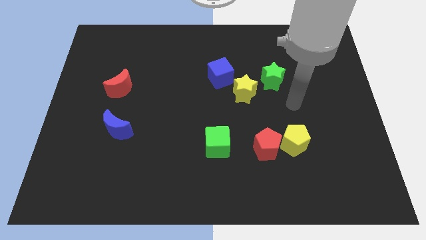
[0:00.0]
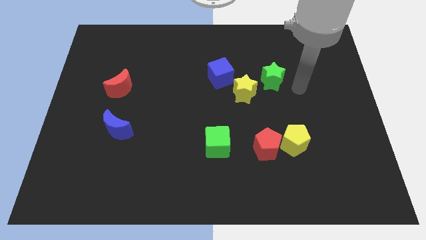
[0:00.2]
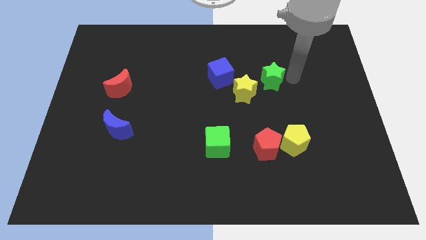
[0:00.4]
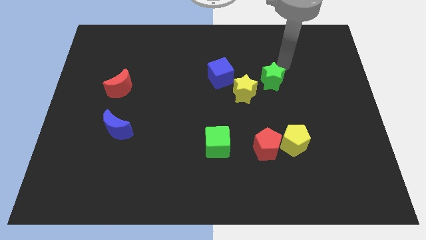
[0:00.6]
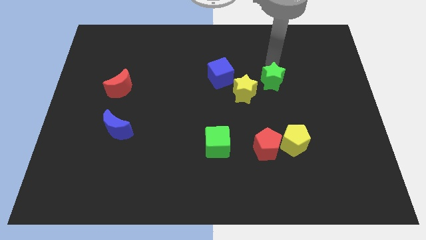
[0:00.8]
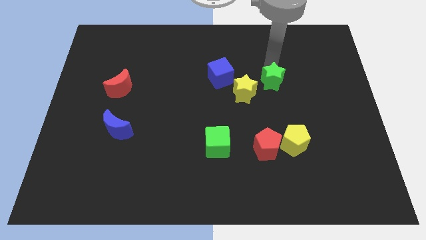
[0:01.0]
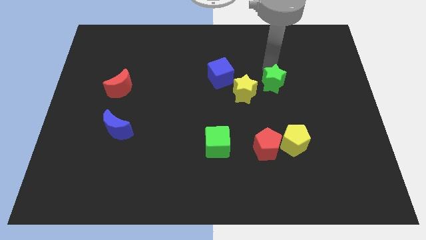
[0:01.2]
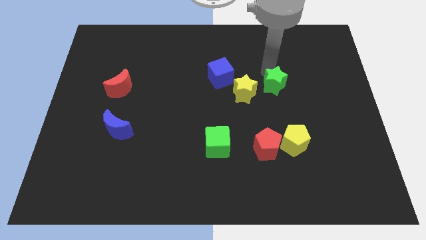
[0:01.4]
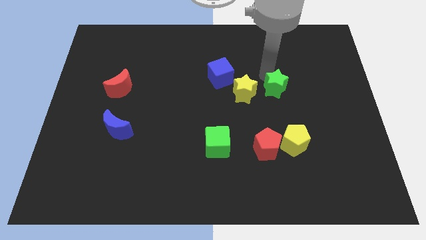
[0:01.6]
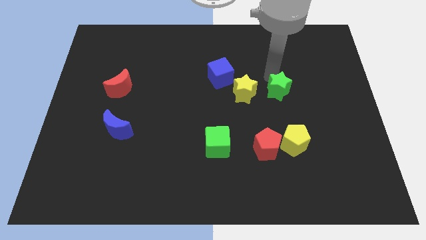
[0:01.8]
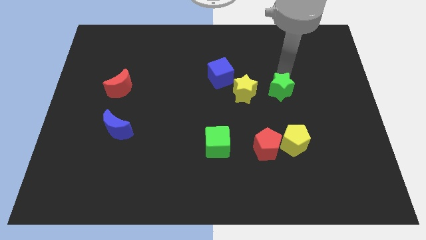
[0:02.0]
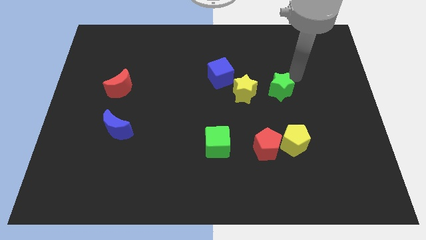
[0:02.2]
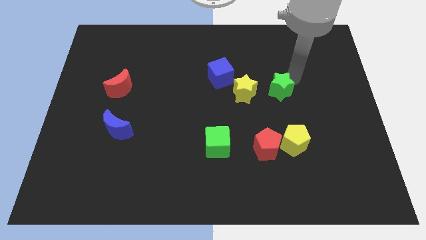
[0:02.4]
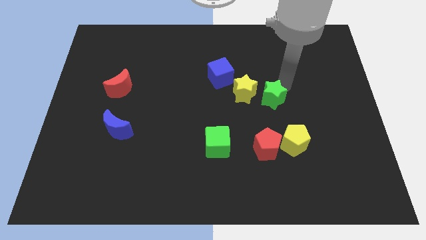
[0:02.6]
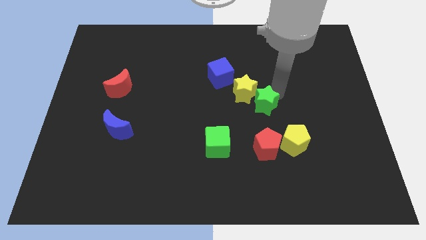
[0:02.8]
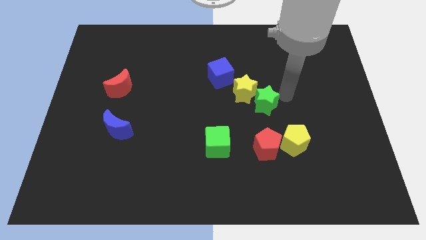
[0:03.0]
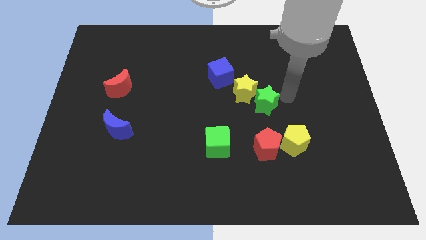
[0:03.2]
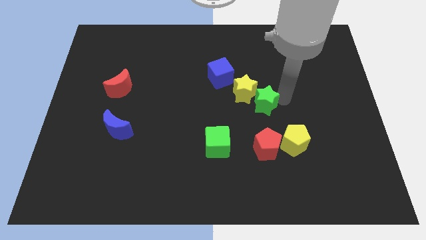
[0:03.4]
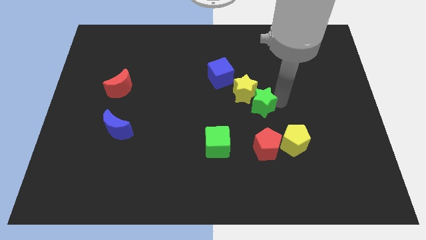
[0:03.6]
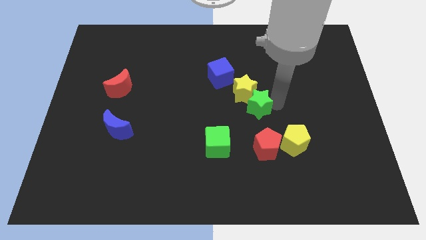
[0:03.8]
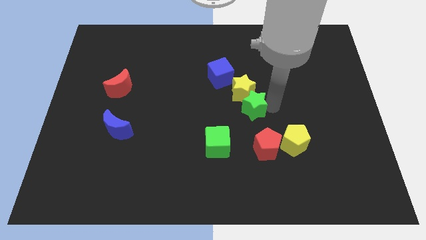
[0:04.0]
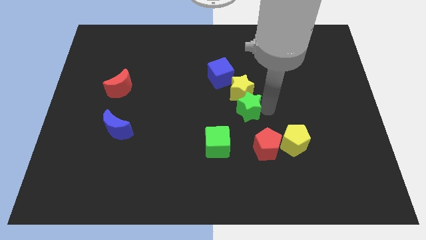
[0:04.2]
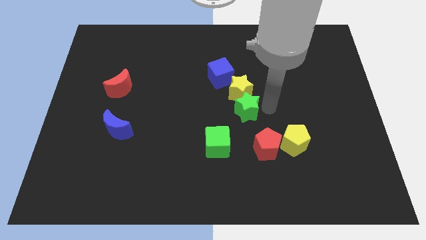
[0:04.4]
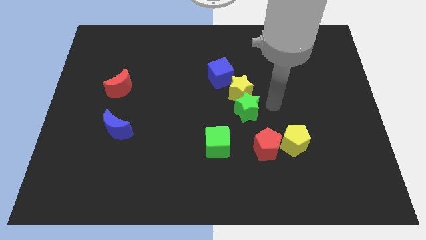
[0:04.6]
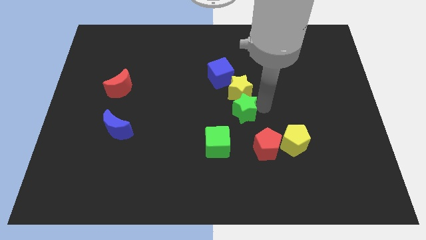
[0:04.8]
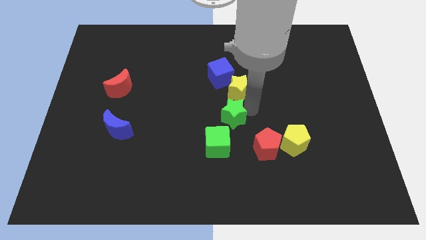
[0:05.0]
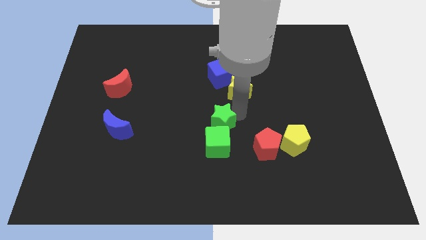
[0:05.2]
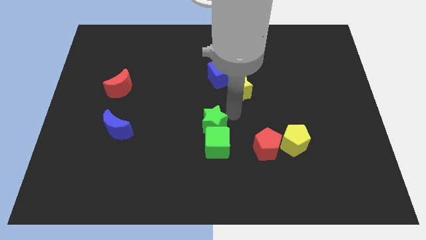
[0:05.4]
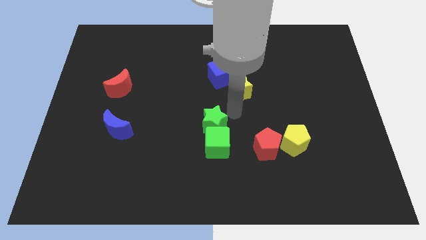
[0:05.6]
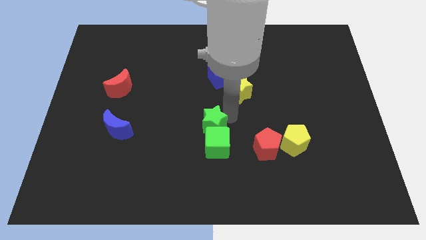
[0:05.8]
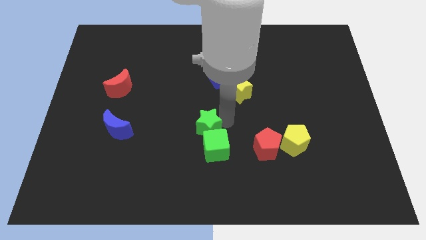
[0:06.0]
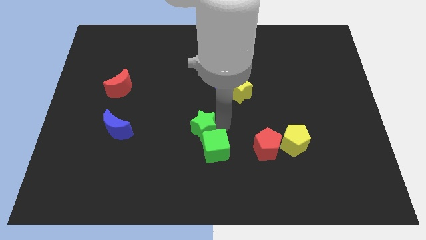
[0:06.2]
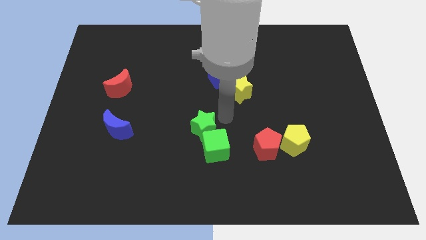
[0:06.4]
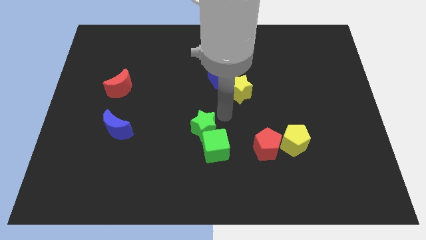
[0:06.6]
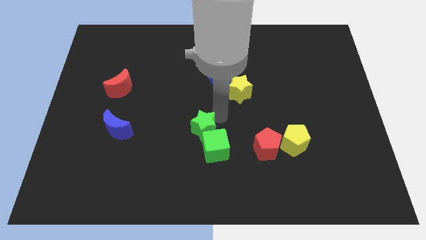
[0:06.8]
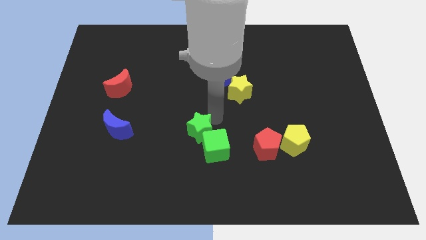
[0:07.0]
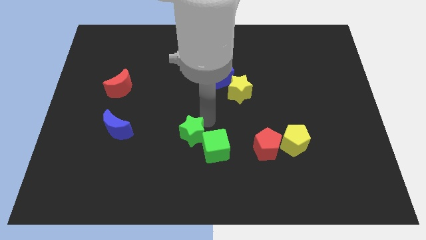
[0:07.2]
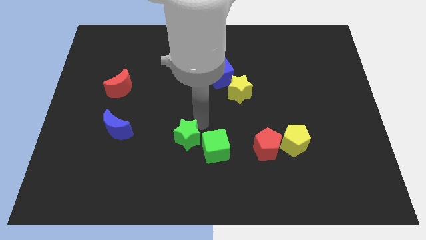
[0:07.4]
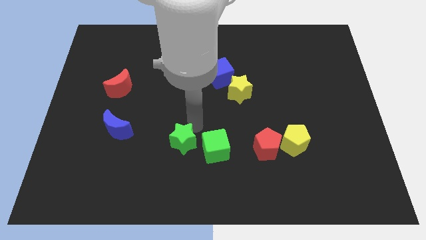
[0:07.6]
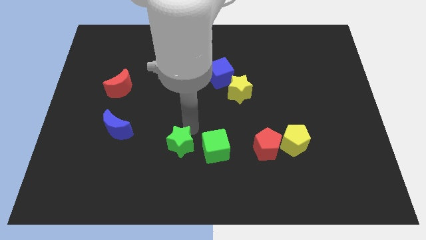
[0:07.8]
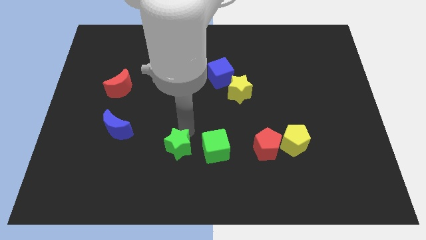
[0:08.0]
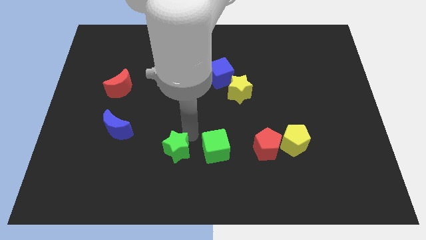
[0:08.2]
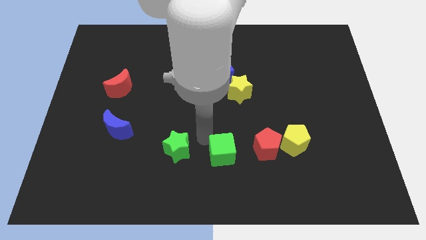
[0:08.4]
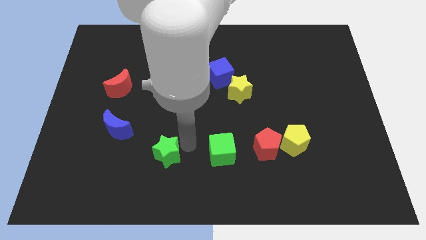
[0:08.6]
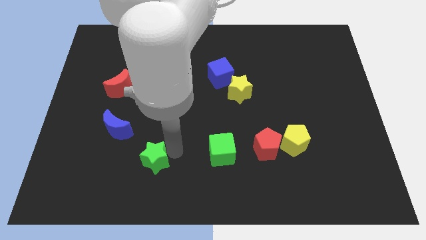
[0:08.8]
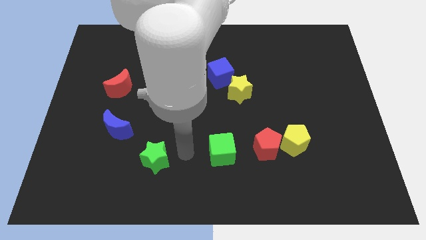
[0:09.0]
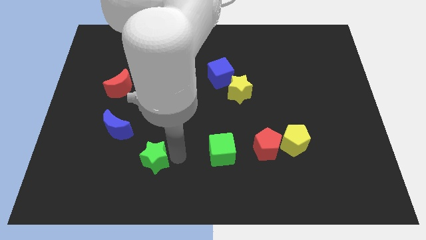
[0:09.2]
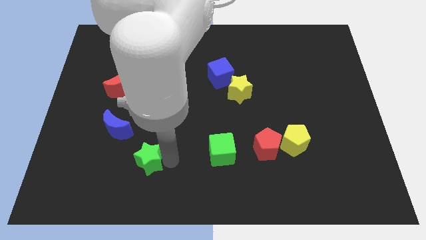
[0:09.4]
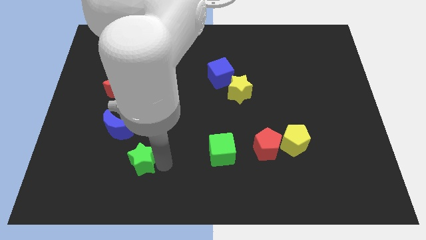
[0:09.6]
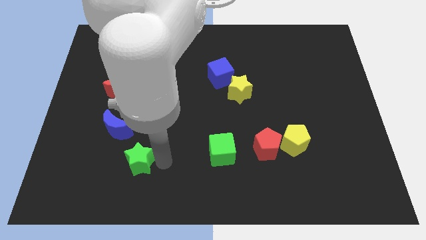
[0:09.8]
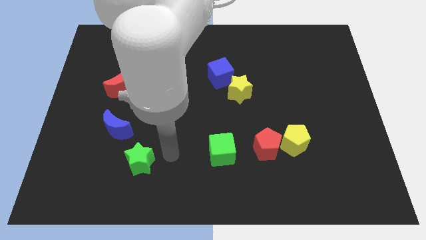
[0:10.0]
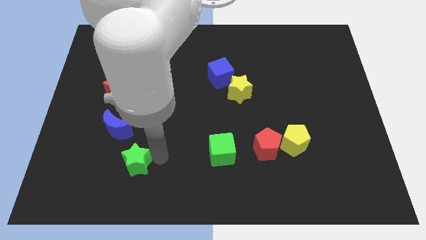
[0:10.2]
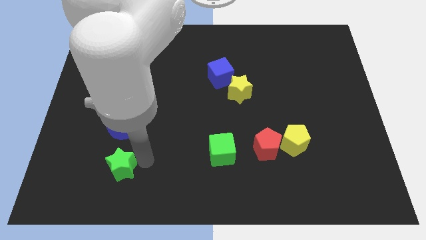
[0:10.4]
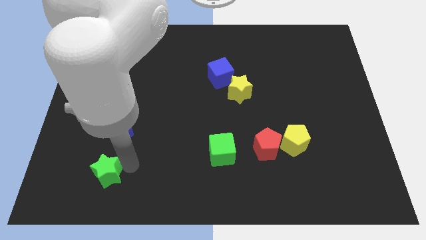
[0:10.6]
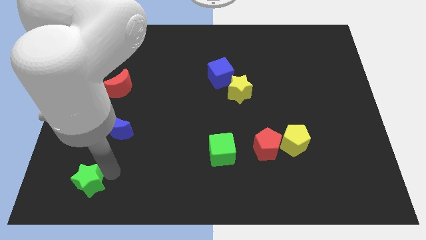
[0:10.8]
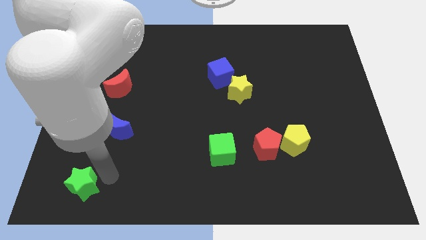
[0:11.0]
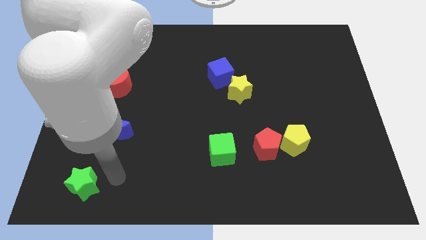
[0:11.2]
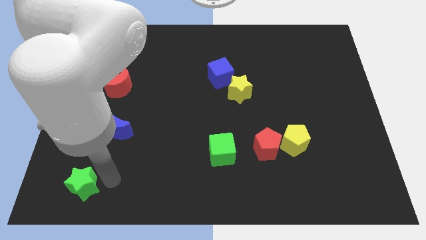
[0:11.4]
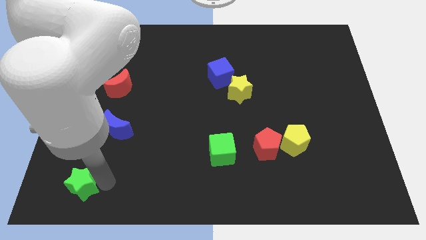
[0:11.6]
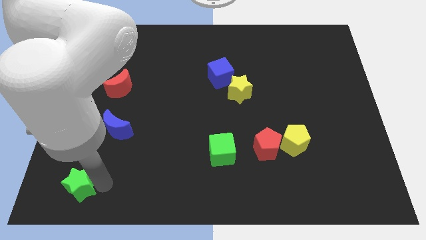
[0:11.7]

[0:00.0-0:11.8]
put the green star to the bottom left

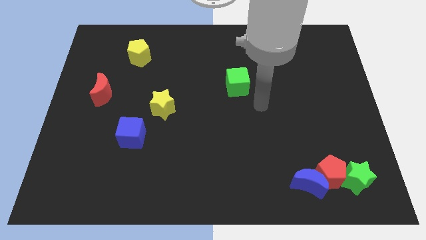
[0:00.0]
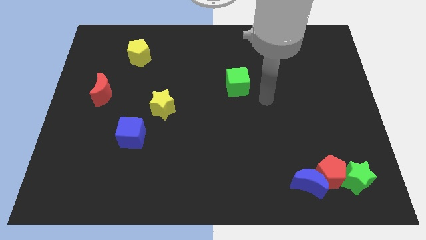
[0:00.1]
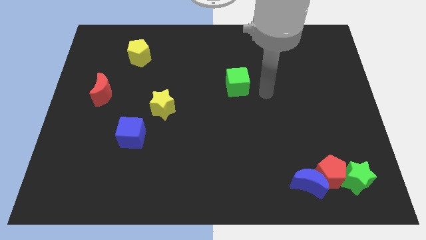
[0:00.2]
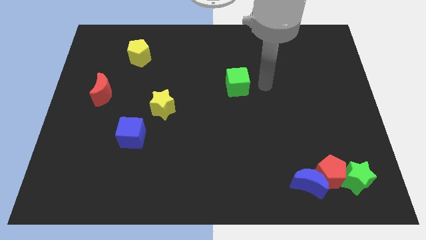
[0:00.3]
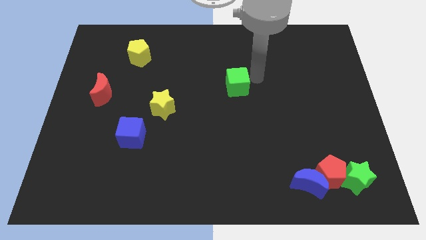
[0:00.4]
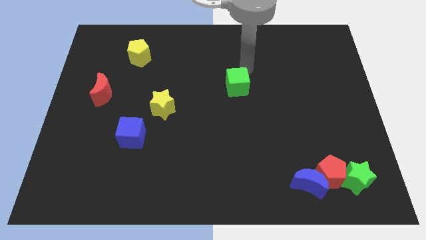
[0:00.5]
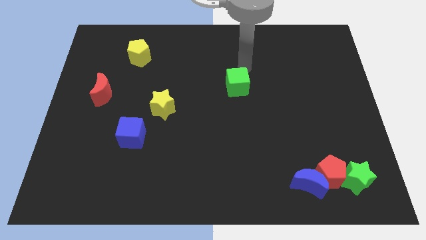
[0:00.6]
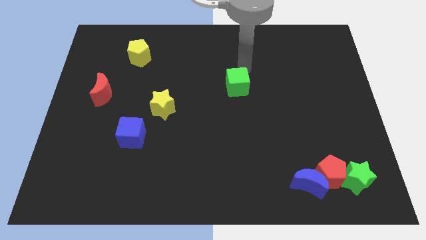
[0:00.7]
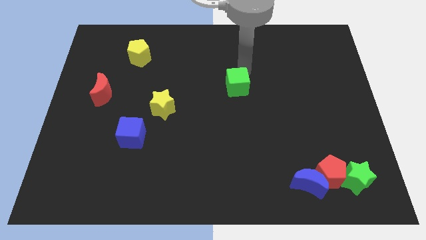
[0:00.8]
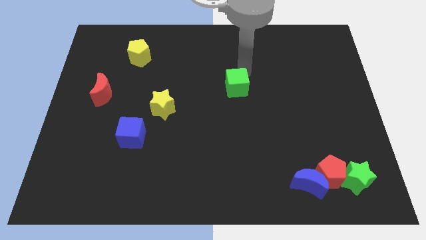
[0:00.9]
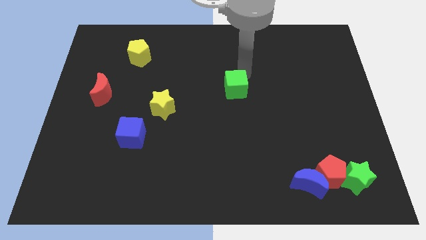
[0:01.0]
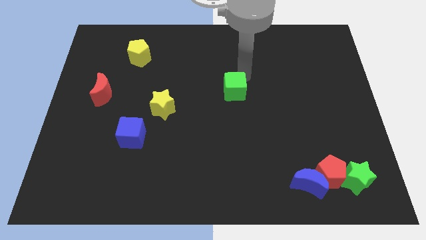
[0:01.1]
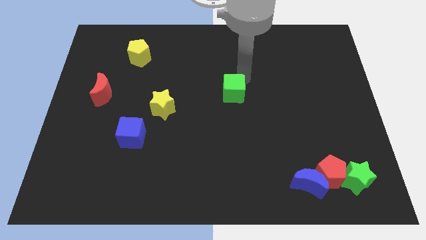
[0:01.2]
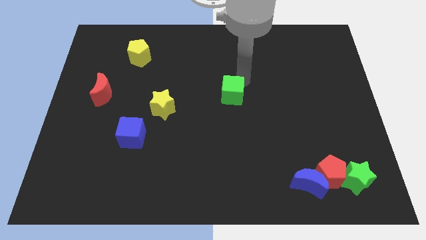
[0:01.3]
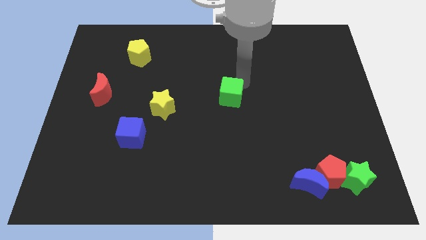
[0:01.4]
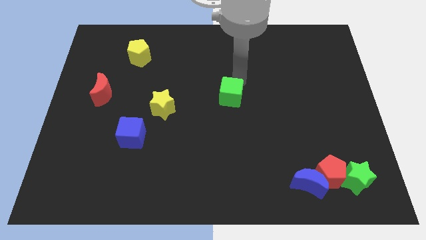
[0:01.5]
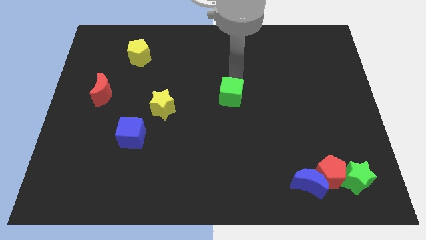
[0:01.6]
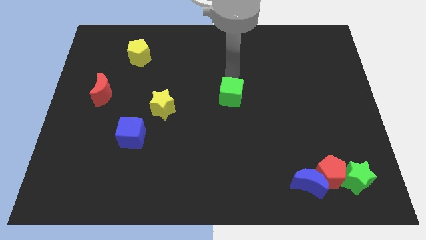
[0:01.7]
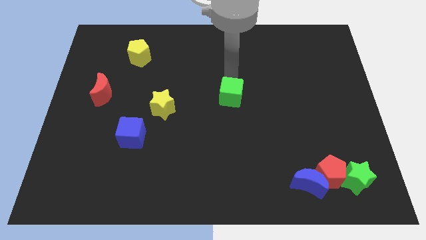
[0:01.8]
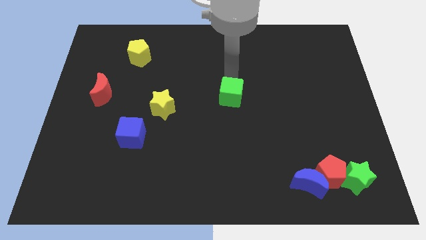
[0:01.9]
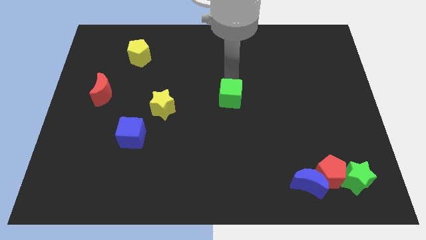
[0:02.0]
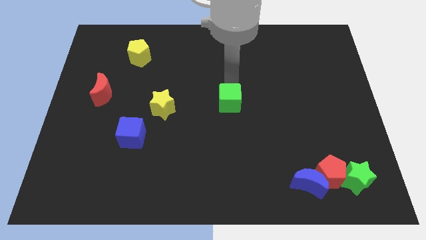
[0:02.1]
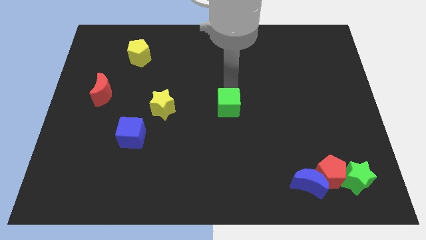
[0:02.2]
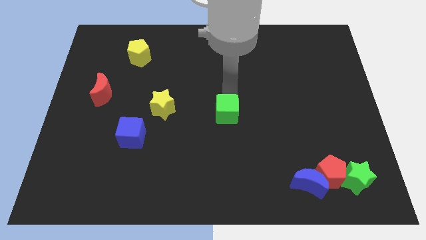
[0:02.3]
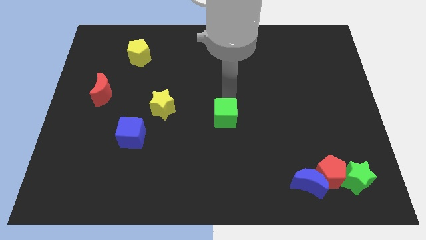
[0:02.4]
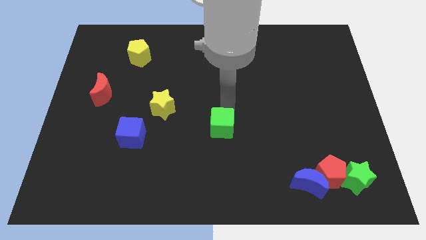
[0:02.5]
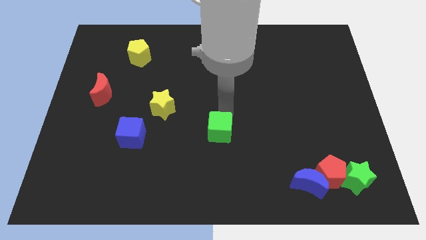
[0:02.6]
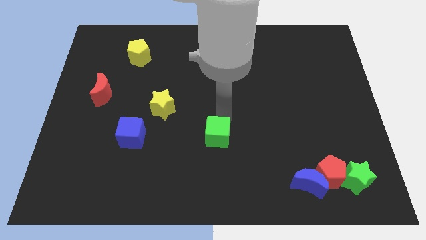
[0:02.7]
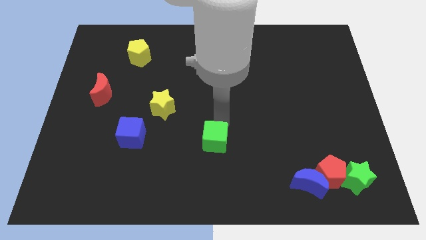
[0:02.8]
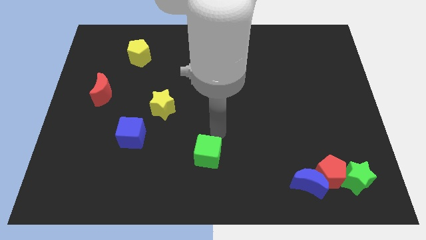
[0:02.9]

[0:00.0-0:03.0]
slide the green cube to the bottom
